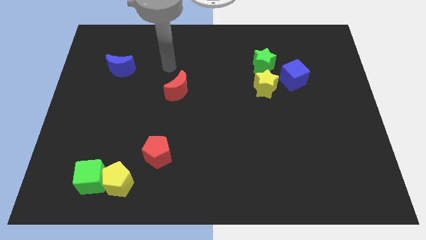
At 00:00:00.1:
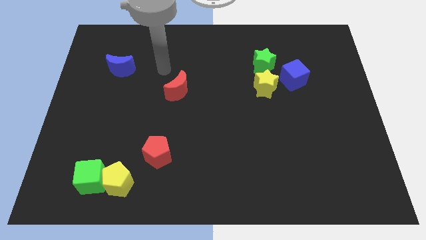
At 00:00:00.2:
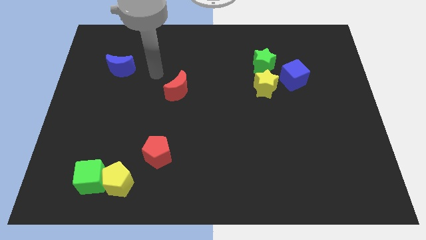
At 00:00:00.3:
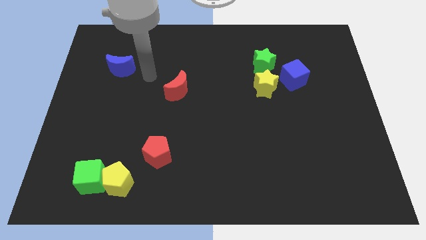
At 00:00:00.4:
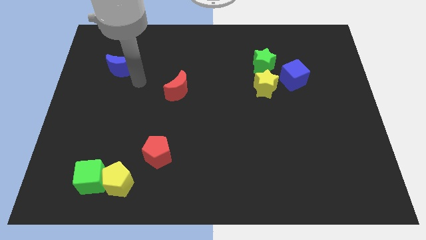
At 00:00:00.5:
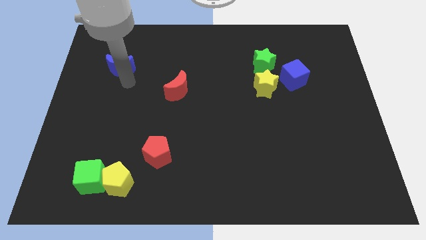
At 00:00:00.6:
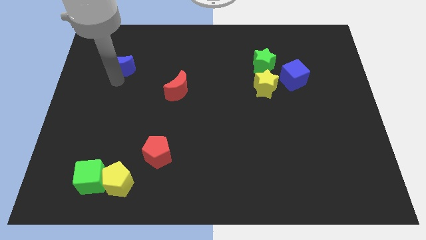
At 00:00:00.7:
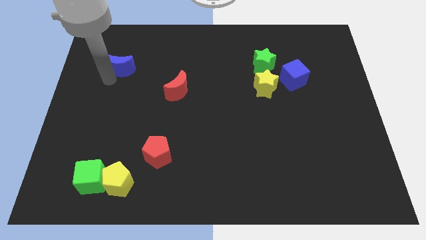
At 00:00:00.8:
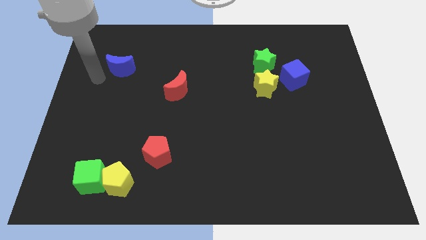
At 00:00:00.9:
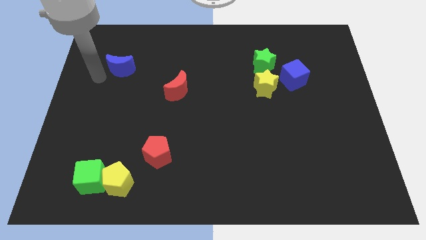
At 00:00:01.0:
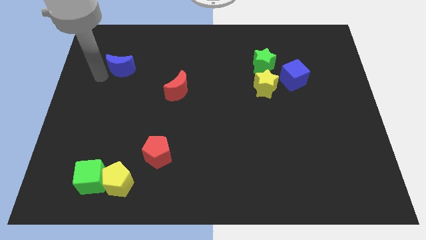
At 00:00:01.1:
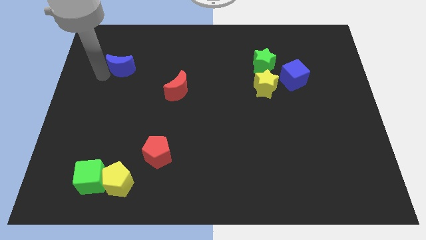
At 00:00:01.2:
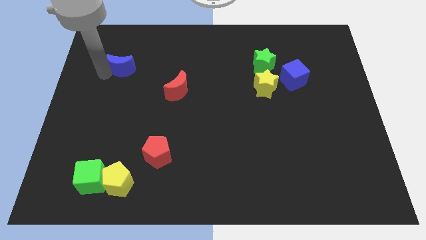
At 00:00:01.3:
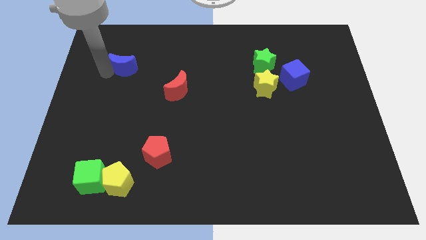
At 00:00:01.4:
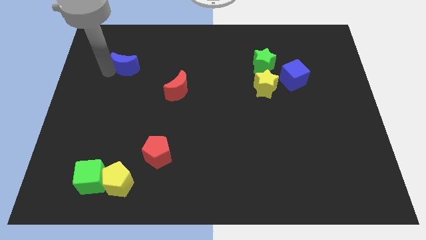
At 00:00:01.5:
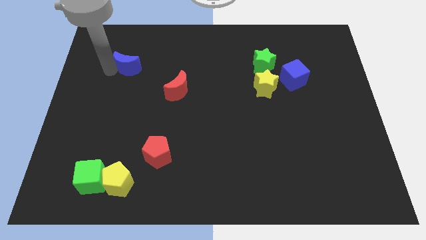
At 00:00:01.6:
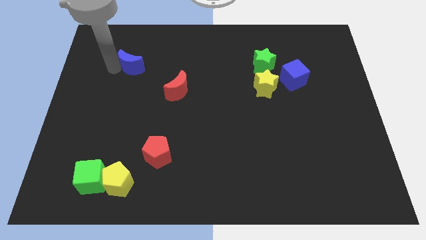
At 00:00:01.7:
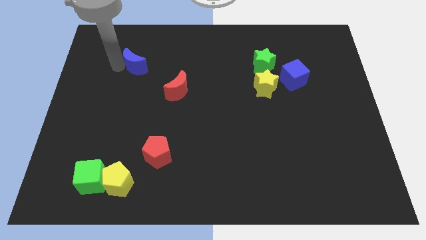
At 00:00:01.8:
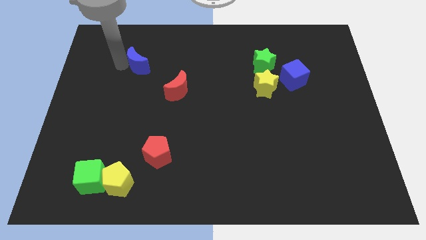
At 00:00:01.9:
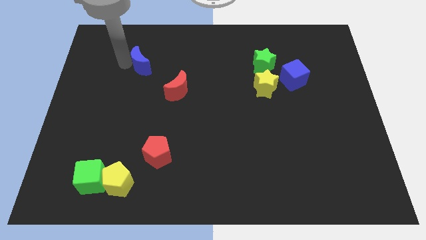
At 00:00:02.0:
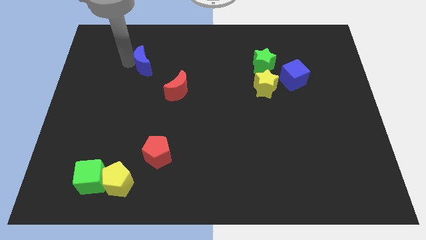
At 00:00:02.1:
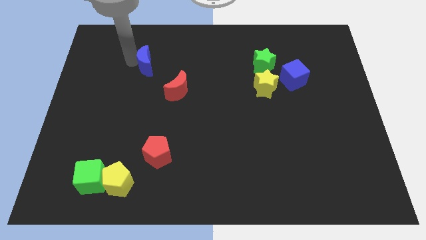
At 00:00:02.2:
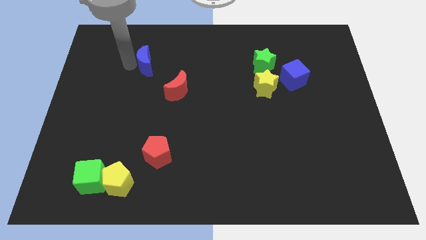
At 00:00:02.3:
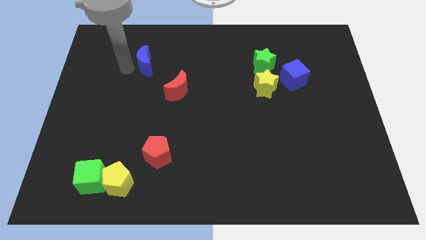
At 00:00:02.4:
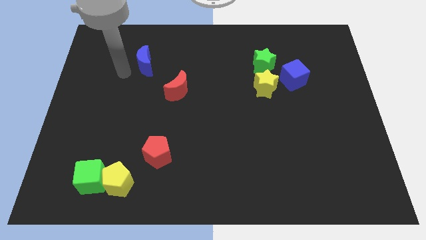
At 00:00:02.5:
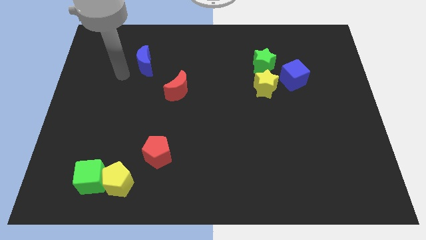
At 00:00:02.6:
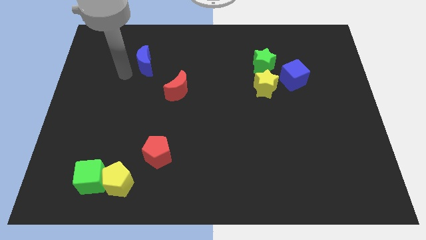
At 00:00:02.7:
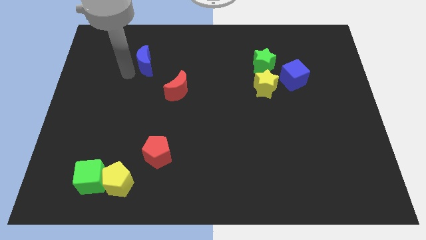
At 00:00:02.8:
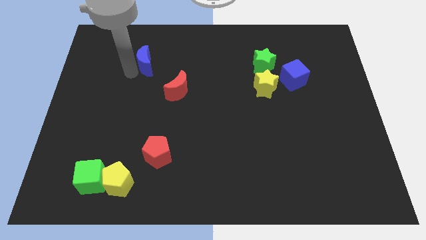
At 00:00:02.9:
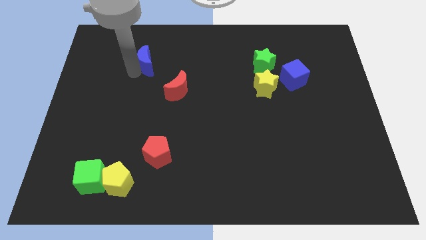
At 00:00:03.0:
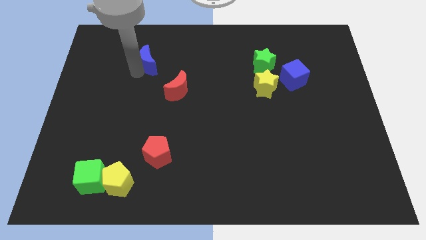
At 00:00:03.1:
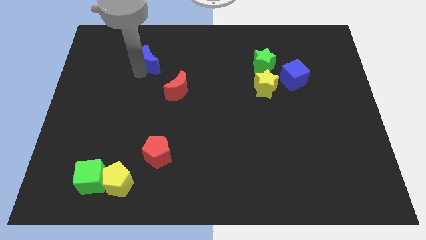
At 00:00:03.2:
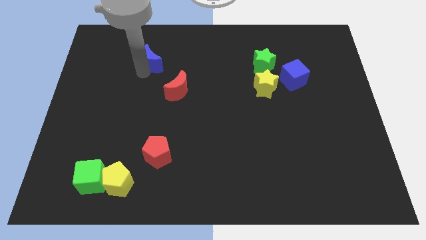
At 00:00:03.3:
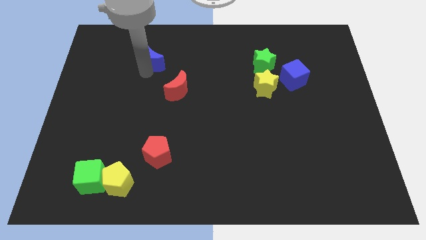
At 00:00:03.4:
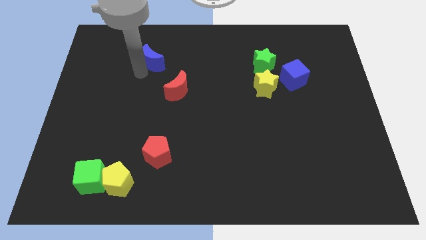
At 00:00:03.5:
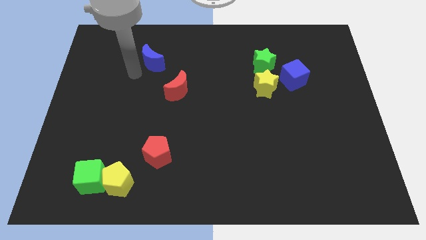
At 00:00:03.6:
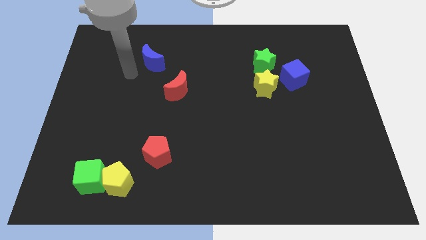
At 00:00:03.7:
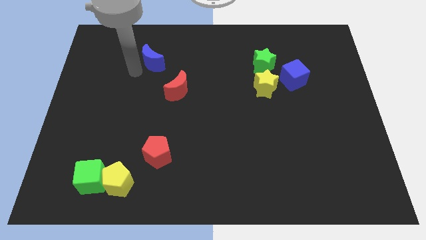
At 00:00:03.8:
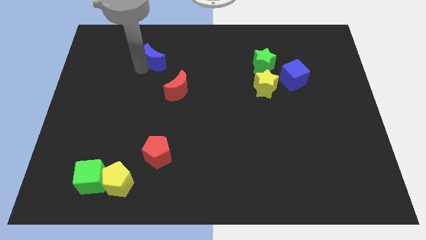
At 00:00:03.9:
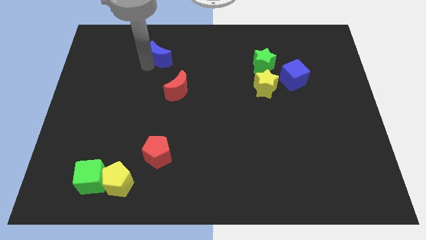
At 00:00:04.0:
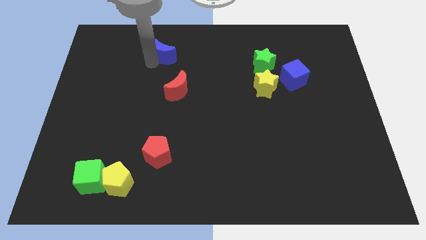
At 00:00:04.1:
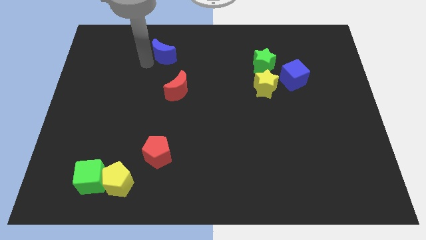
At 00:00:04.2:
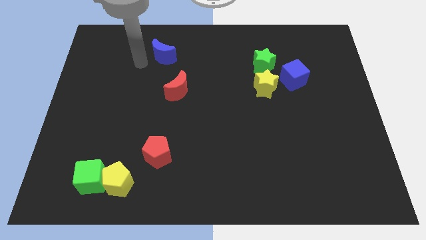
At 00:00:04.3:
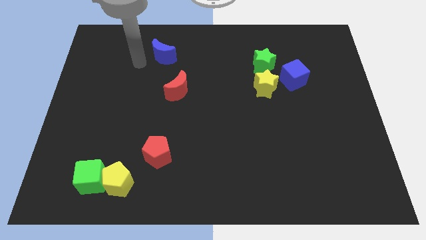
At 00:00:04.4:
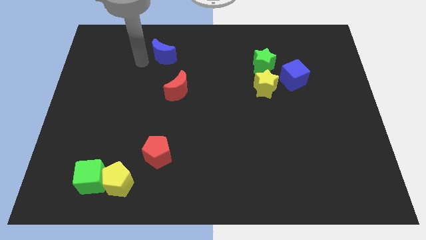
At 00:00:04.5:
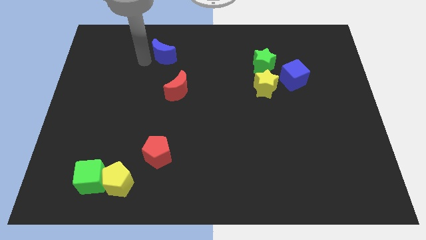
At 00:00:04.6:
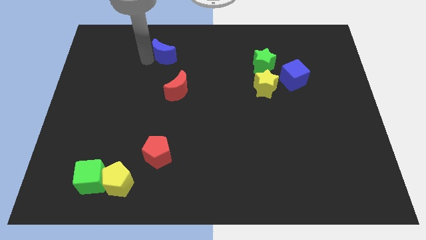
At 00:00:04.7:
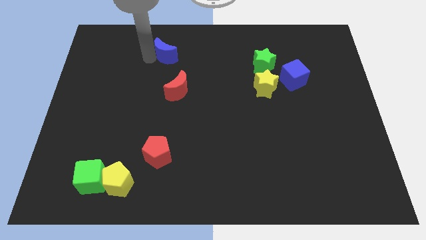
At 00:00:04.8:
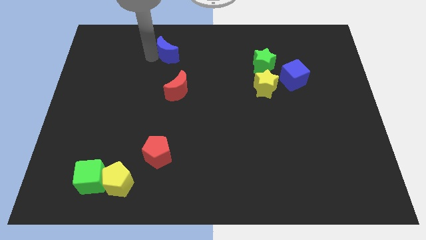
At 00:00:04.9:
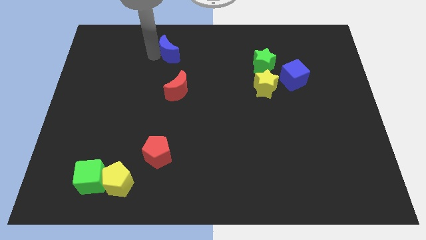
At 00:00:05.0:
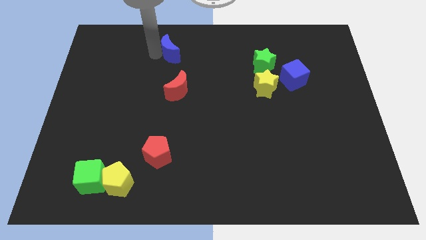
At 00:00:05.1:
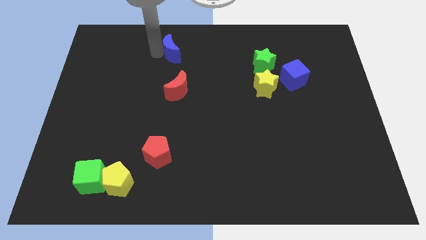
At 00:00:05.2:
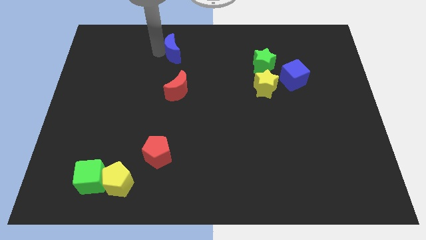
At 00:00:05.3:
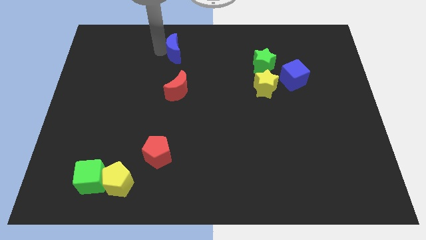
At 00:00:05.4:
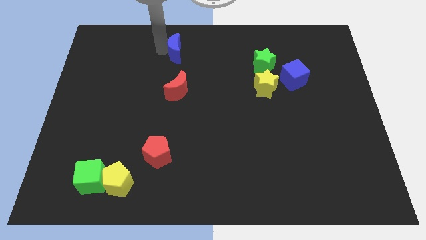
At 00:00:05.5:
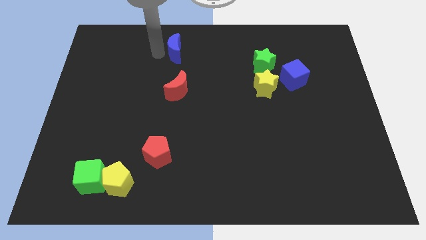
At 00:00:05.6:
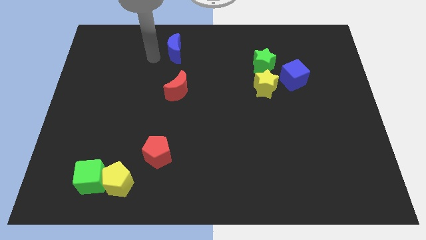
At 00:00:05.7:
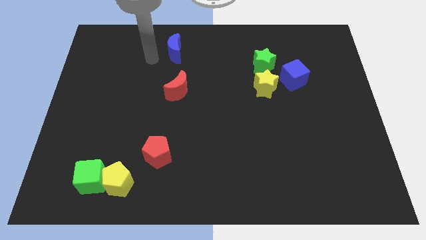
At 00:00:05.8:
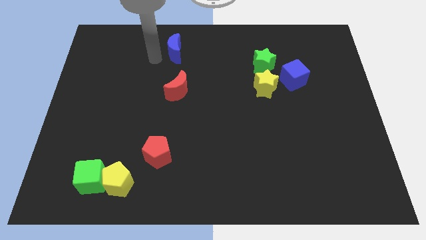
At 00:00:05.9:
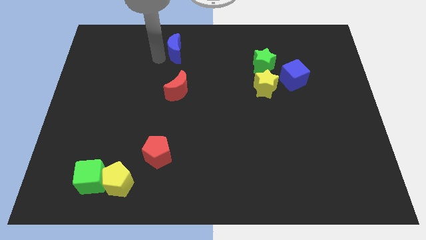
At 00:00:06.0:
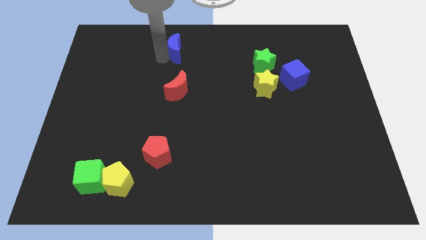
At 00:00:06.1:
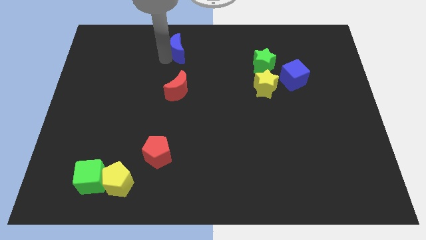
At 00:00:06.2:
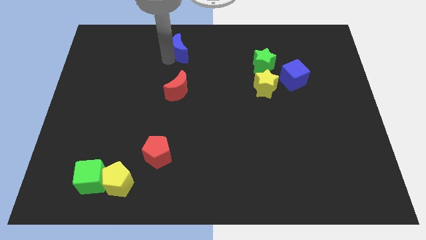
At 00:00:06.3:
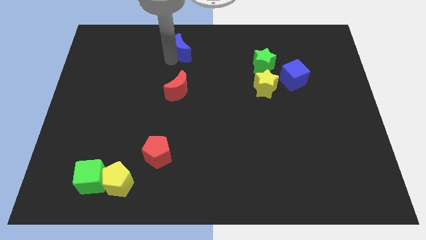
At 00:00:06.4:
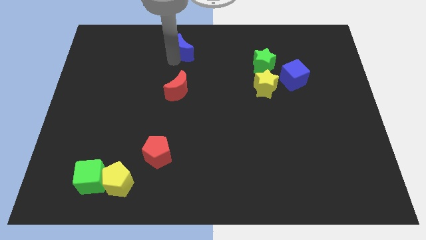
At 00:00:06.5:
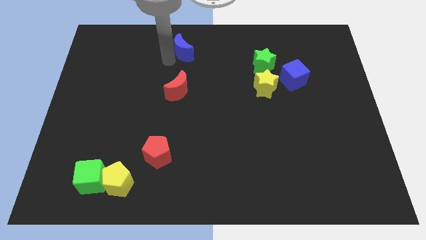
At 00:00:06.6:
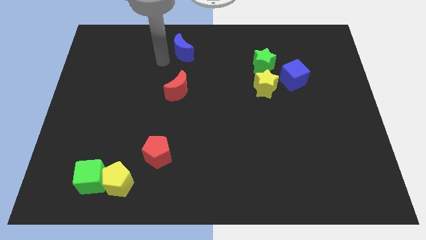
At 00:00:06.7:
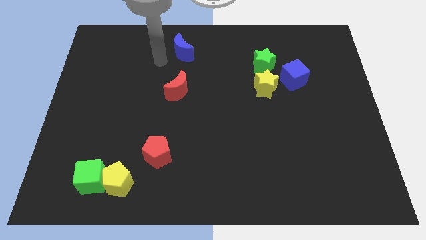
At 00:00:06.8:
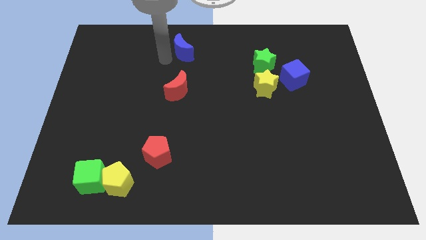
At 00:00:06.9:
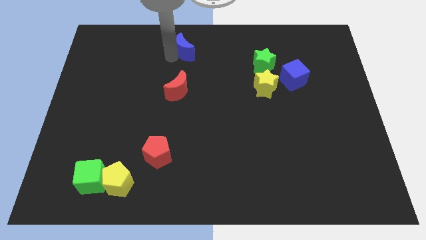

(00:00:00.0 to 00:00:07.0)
push the blue moon to the top side

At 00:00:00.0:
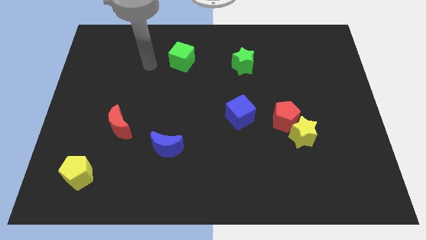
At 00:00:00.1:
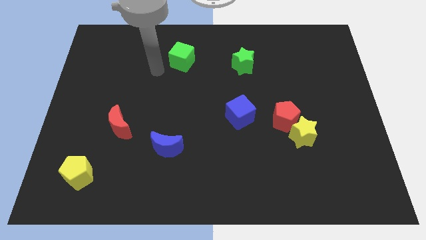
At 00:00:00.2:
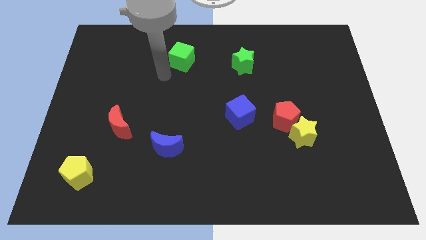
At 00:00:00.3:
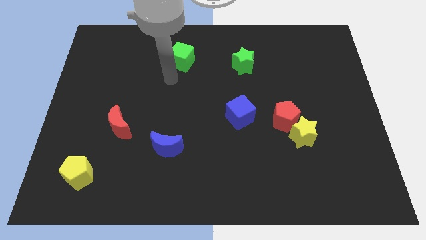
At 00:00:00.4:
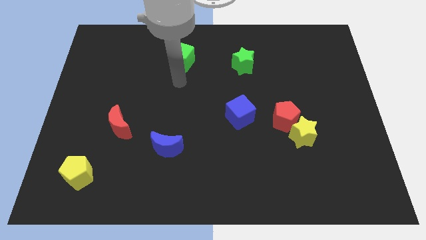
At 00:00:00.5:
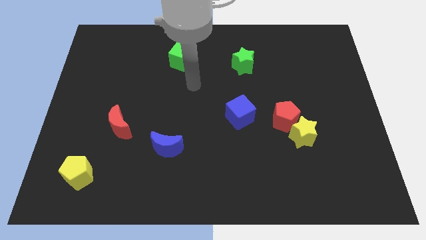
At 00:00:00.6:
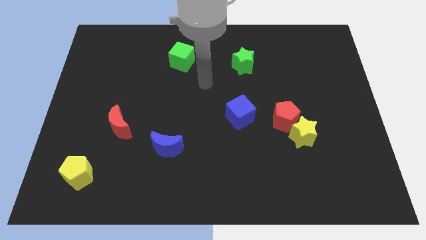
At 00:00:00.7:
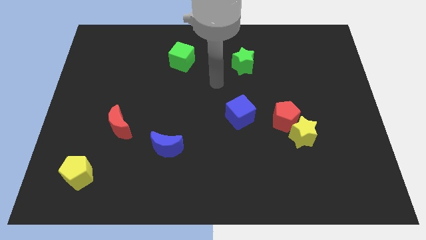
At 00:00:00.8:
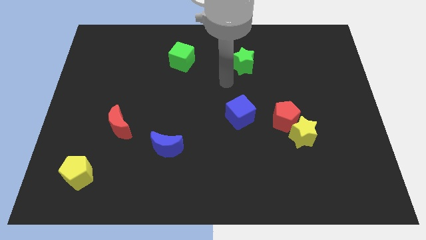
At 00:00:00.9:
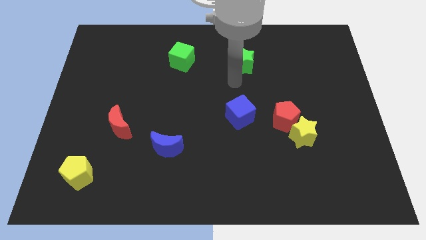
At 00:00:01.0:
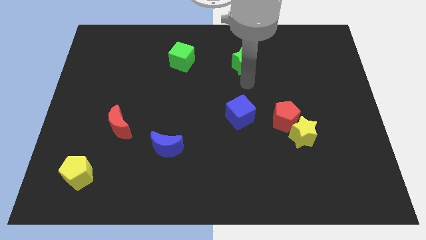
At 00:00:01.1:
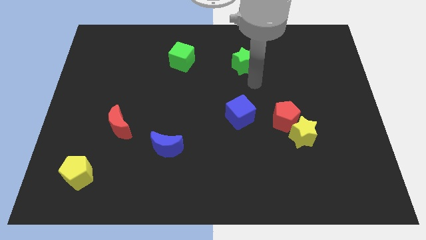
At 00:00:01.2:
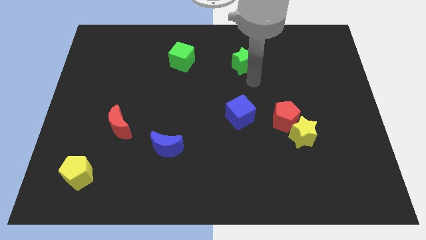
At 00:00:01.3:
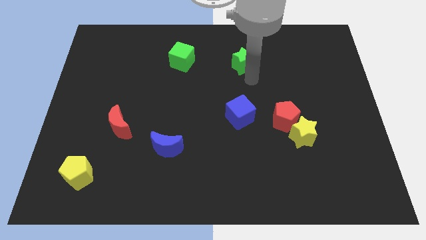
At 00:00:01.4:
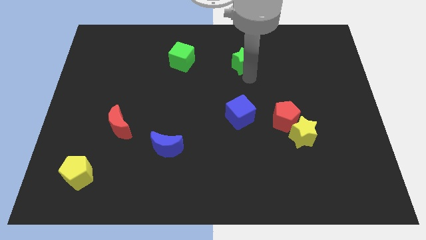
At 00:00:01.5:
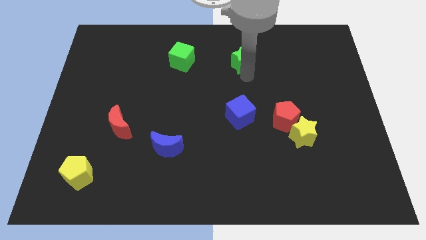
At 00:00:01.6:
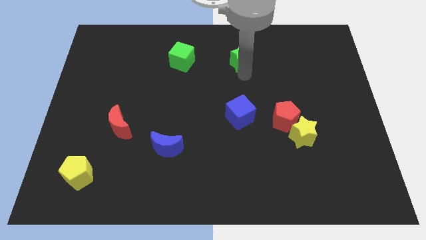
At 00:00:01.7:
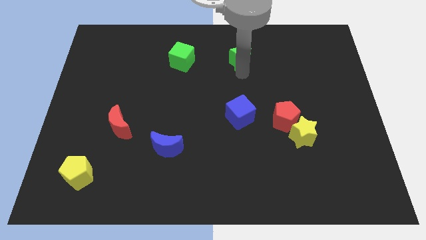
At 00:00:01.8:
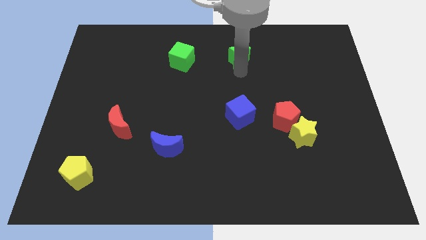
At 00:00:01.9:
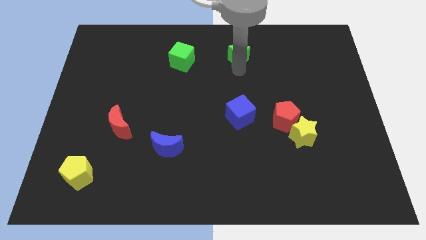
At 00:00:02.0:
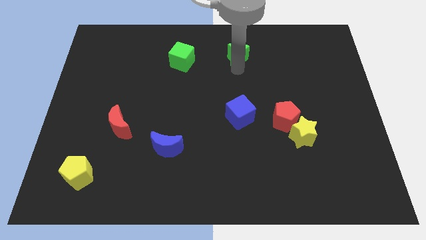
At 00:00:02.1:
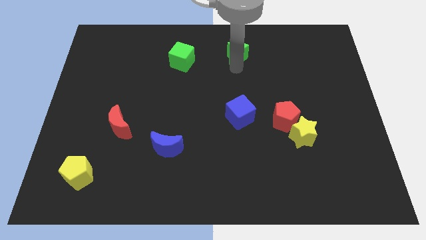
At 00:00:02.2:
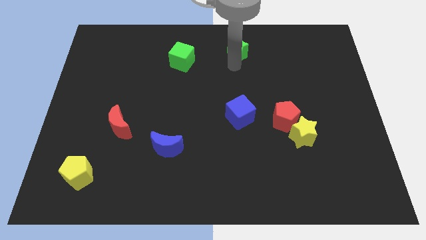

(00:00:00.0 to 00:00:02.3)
put the green star to the towards your base
